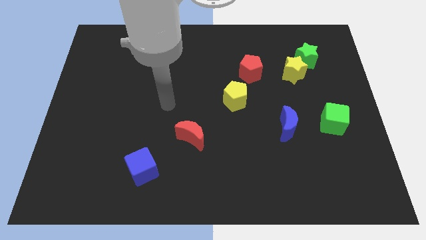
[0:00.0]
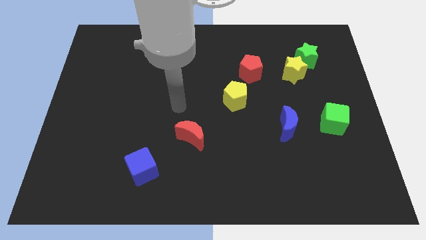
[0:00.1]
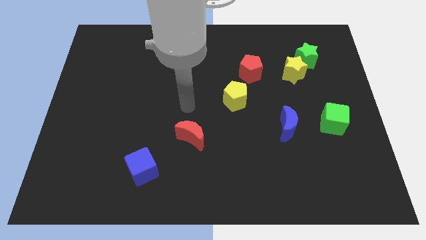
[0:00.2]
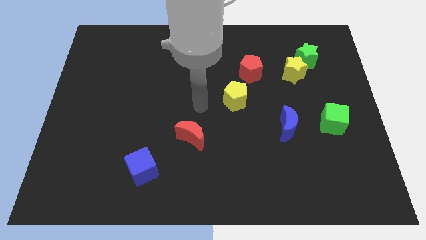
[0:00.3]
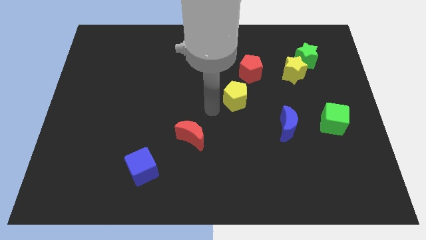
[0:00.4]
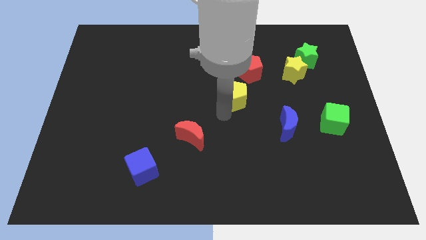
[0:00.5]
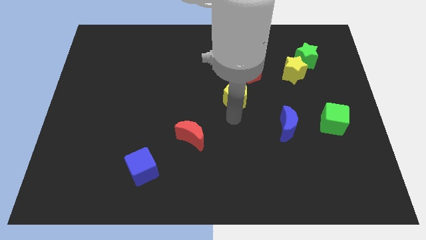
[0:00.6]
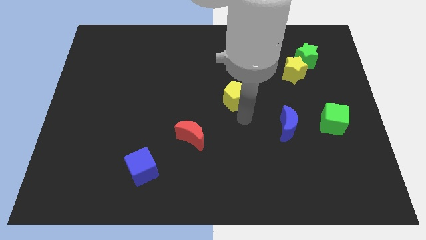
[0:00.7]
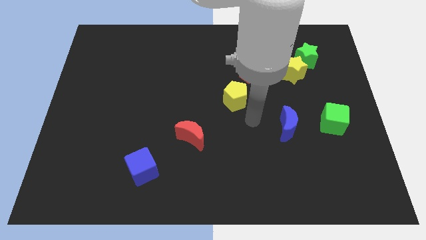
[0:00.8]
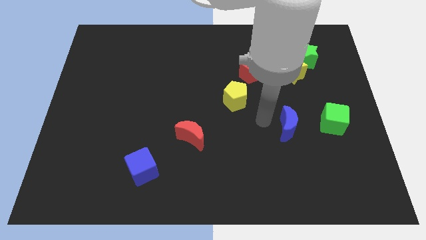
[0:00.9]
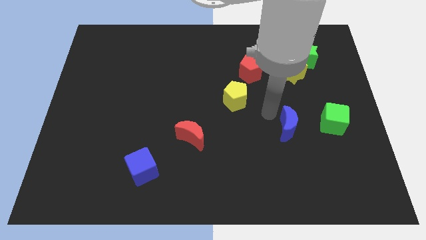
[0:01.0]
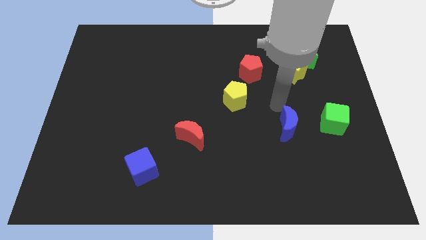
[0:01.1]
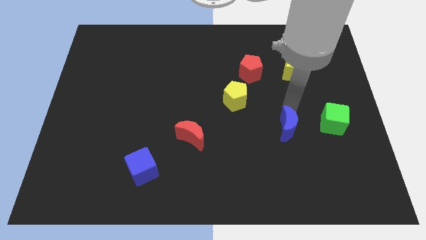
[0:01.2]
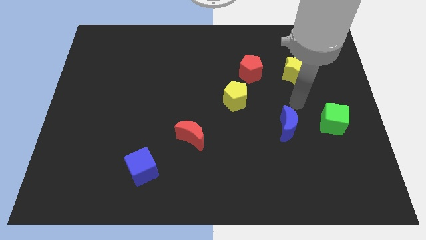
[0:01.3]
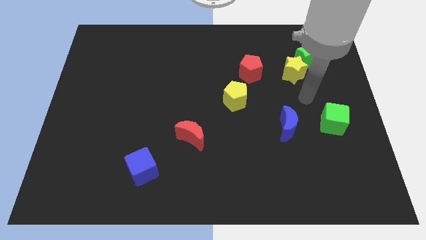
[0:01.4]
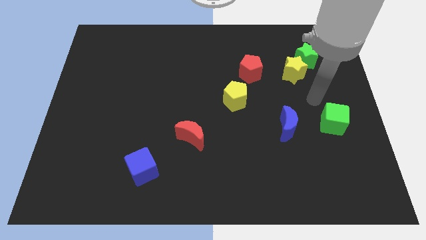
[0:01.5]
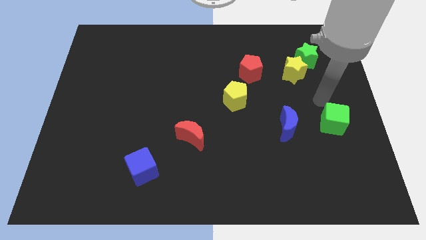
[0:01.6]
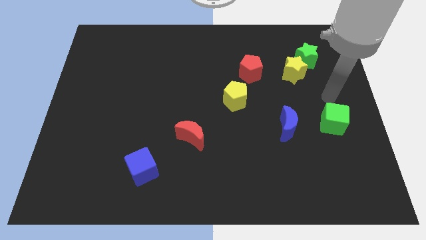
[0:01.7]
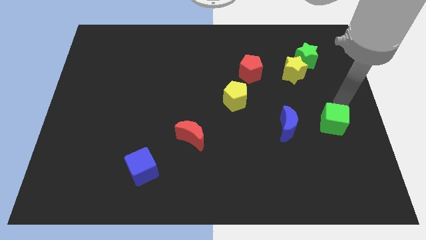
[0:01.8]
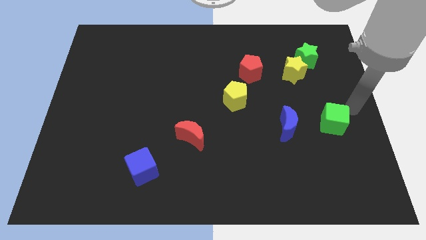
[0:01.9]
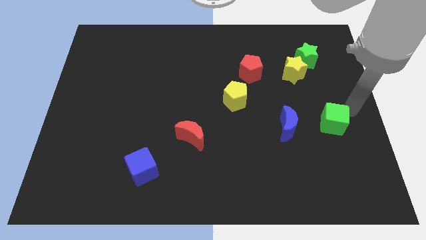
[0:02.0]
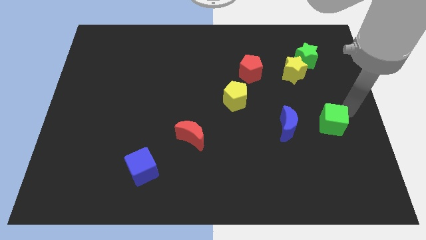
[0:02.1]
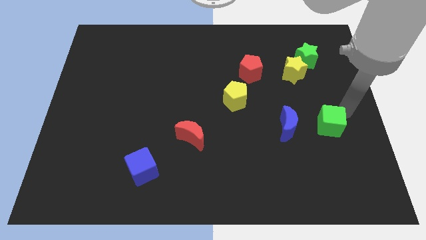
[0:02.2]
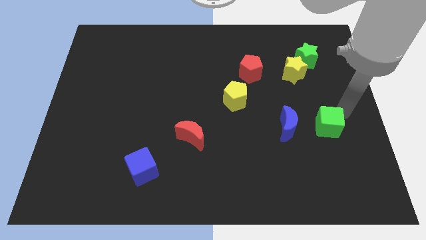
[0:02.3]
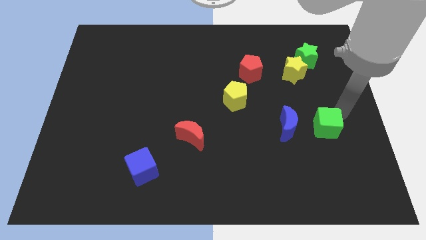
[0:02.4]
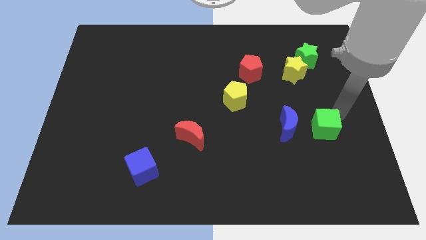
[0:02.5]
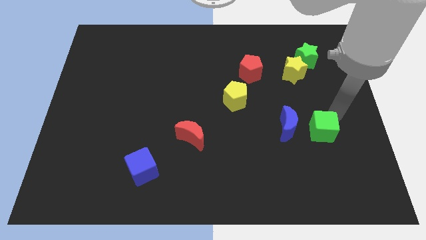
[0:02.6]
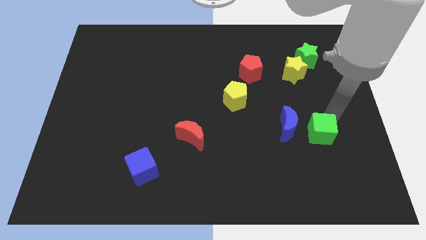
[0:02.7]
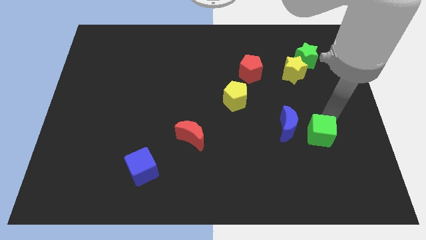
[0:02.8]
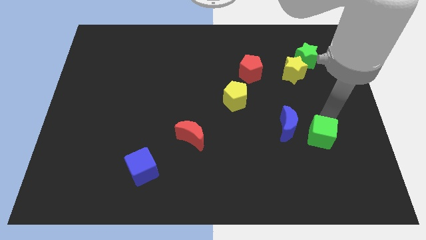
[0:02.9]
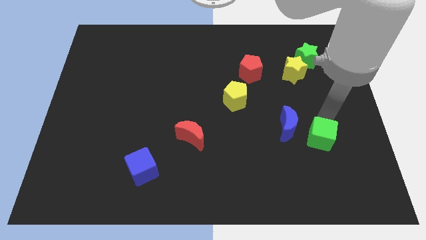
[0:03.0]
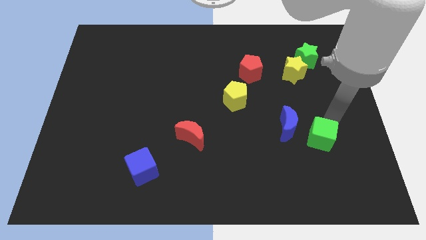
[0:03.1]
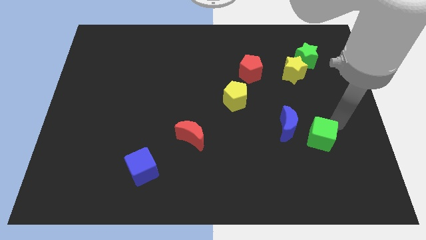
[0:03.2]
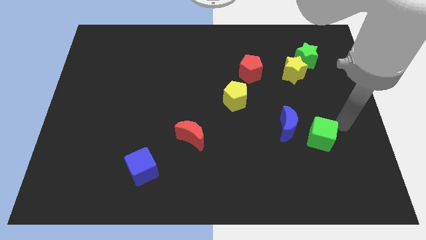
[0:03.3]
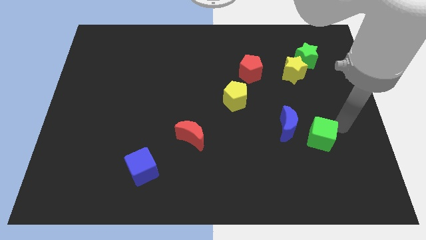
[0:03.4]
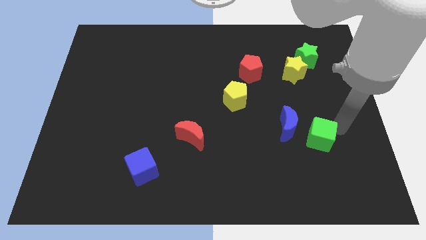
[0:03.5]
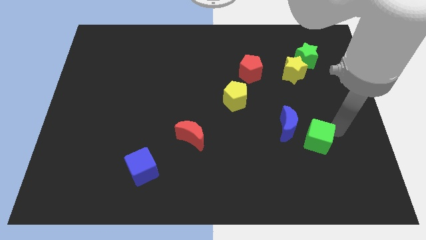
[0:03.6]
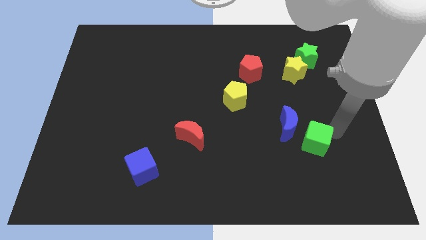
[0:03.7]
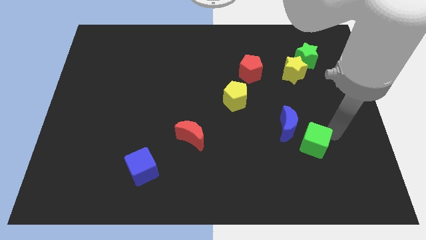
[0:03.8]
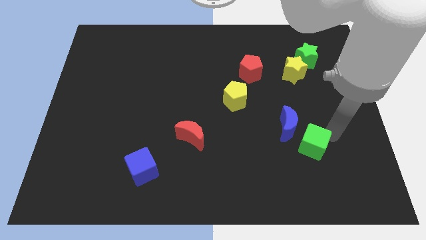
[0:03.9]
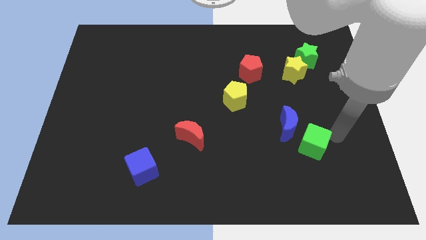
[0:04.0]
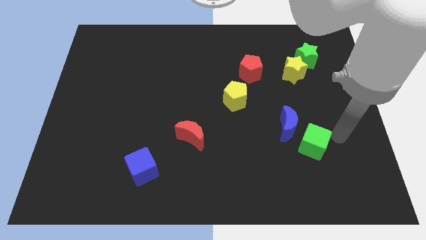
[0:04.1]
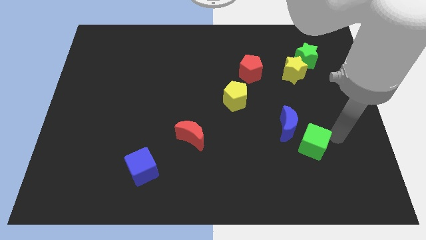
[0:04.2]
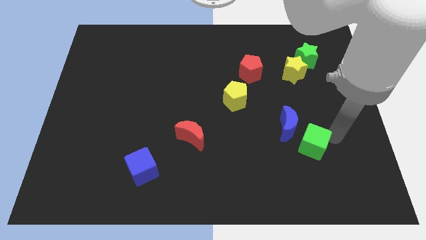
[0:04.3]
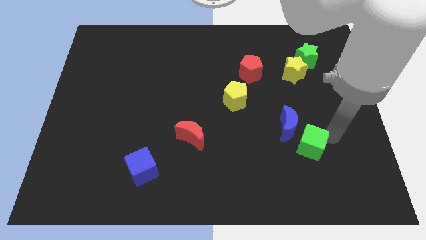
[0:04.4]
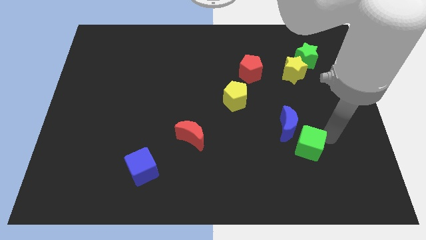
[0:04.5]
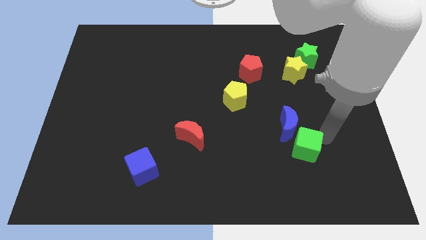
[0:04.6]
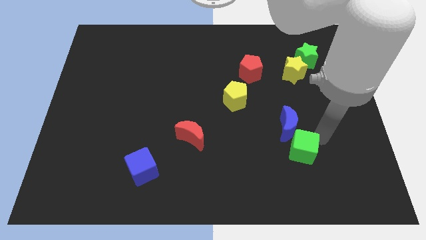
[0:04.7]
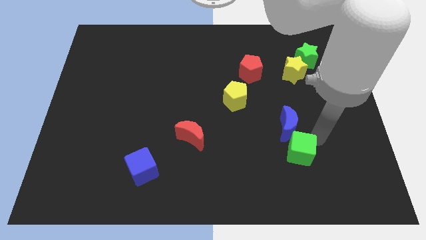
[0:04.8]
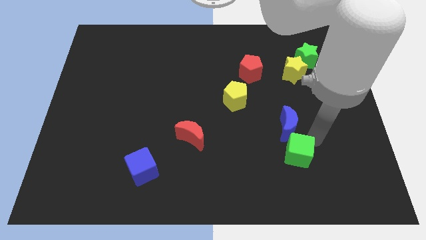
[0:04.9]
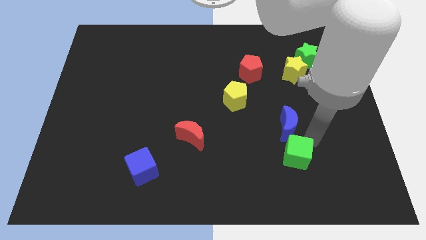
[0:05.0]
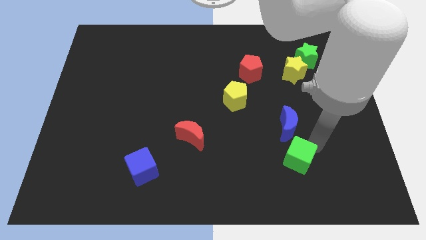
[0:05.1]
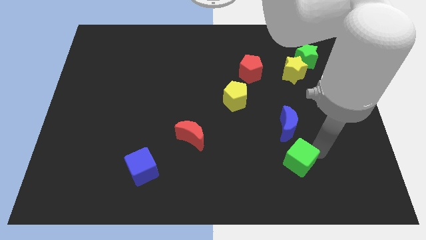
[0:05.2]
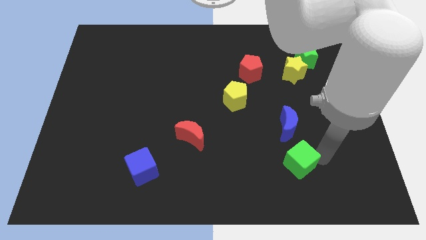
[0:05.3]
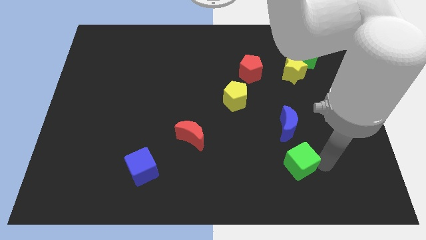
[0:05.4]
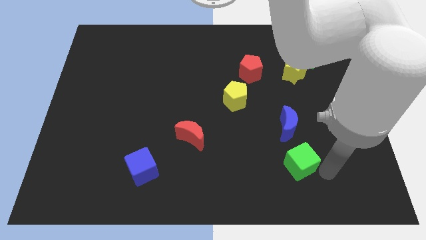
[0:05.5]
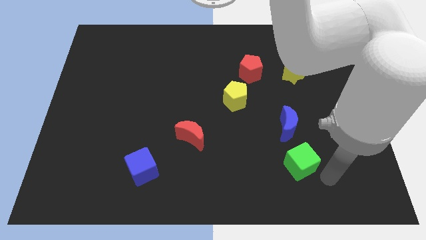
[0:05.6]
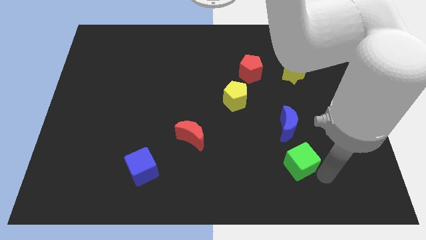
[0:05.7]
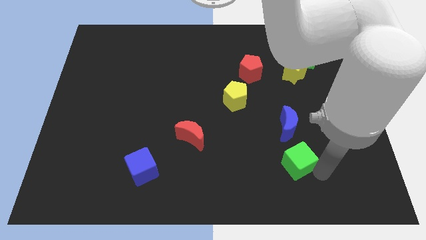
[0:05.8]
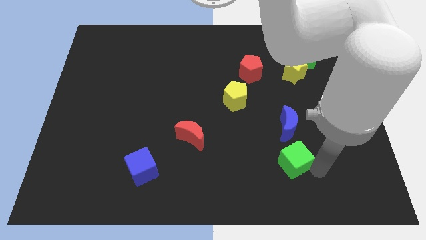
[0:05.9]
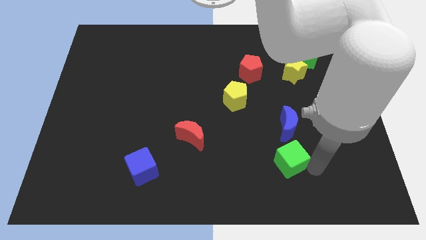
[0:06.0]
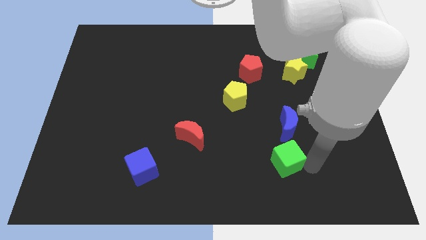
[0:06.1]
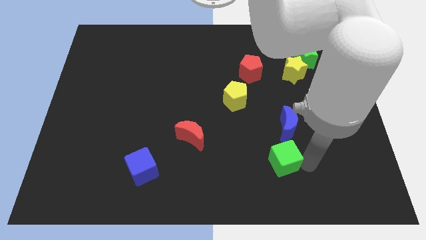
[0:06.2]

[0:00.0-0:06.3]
move the green cube to the bottom left side of the blue moon
